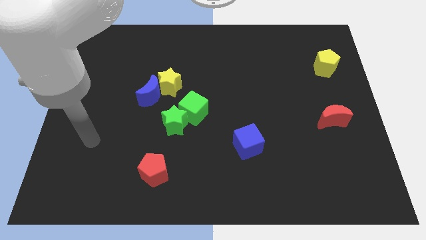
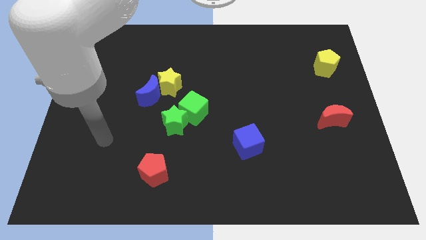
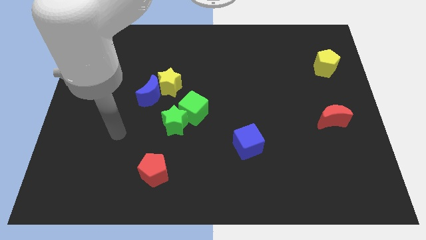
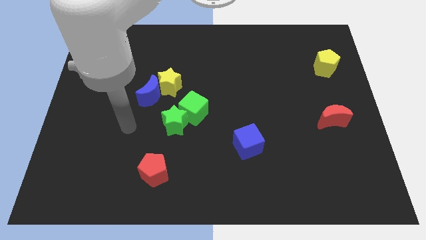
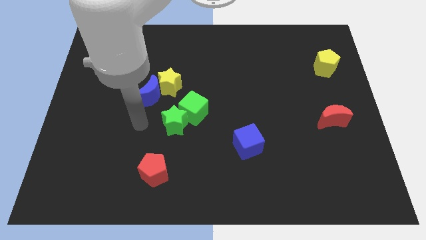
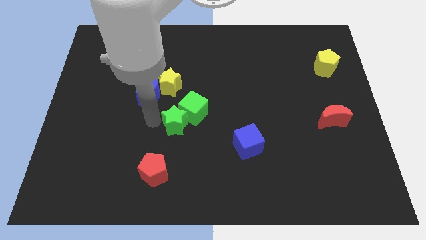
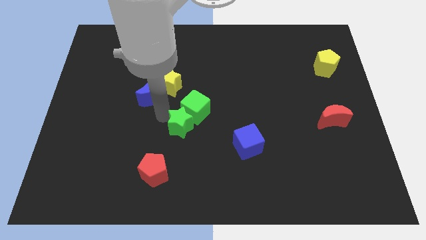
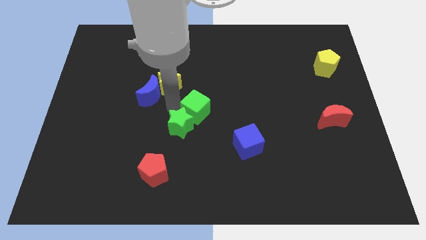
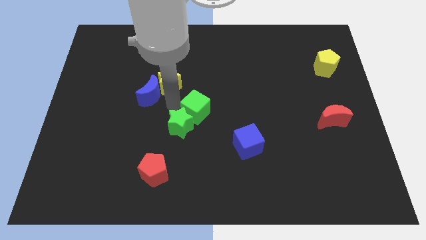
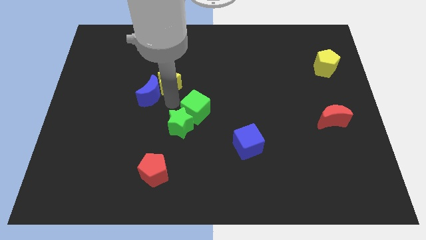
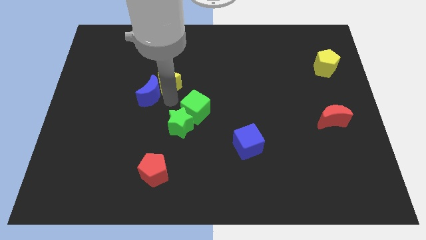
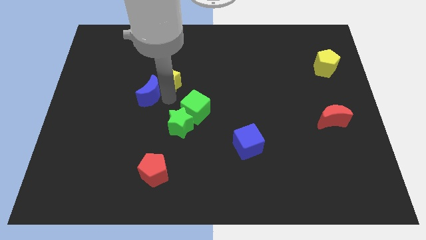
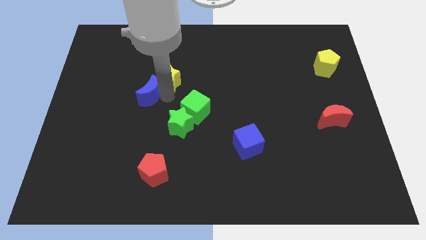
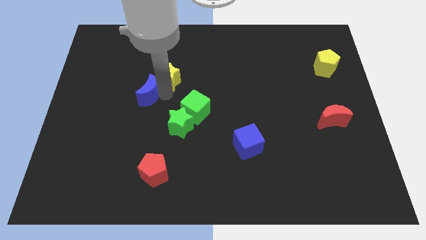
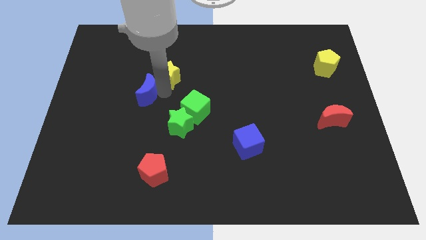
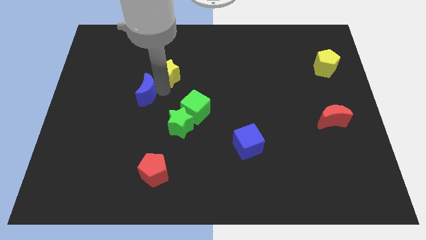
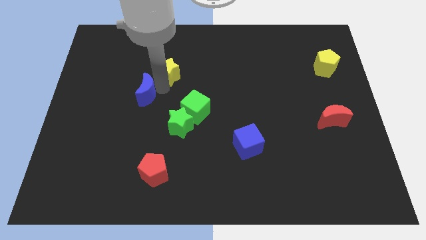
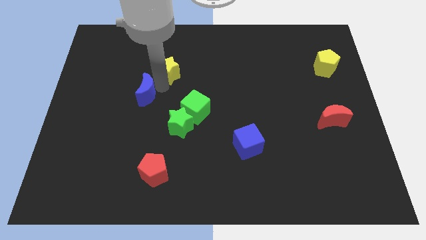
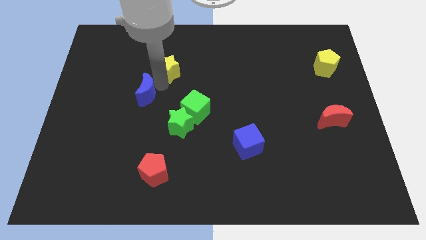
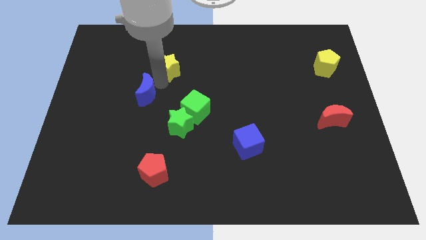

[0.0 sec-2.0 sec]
separate the yellow star from the blue moon and green cube

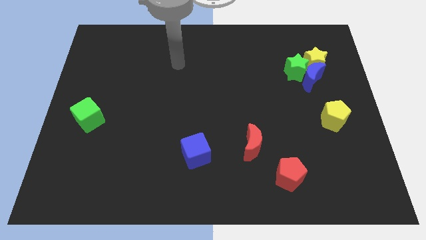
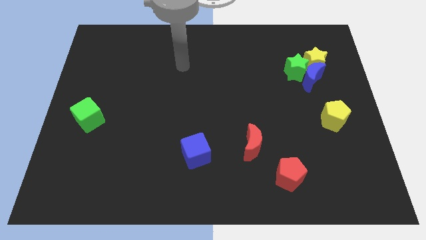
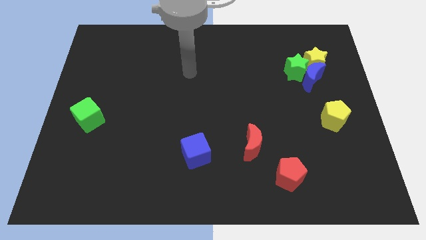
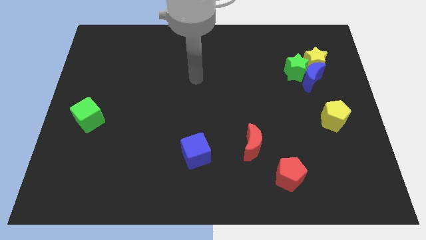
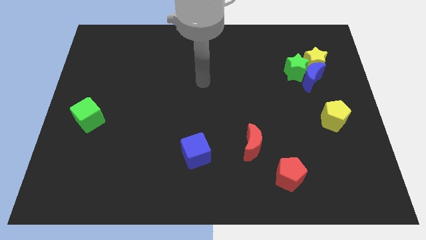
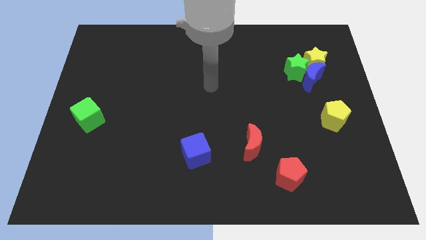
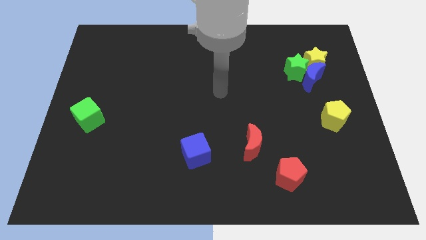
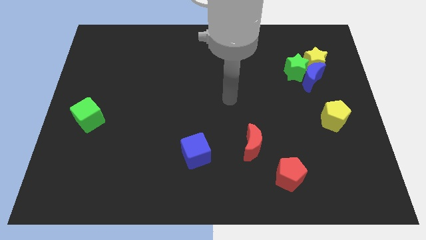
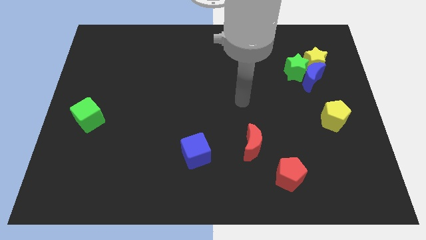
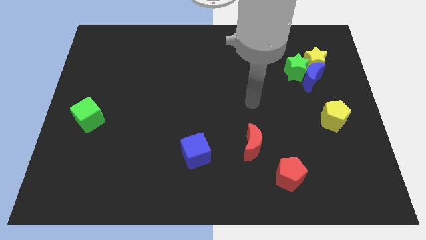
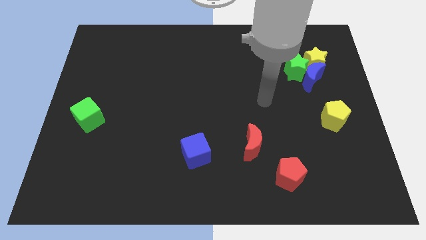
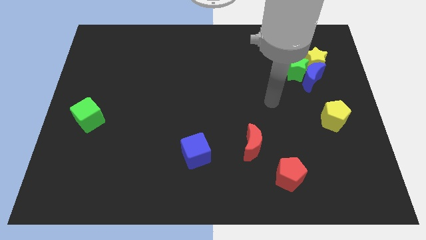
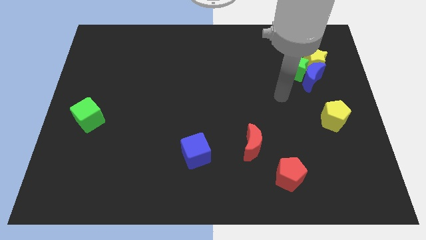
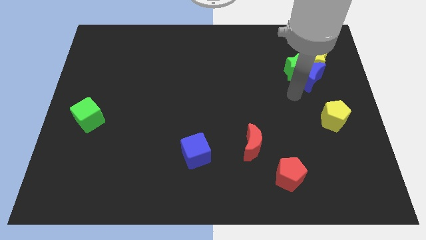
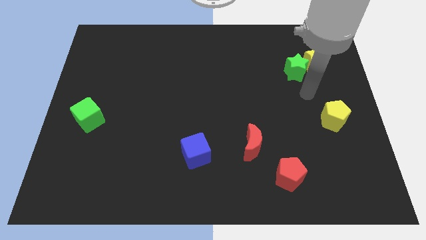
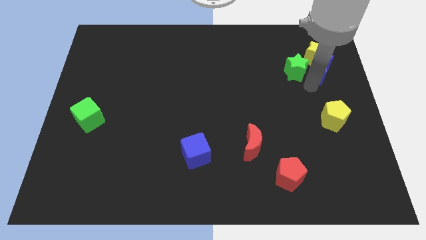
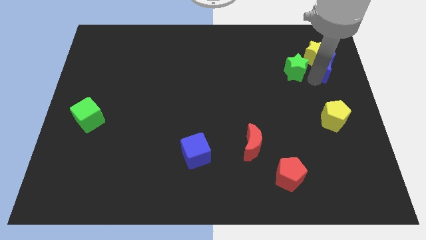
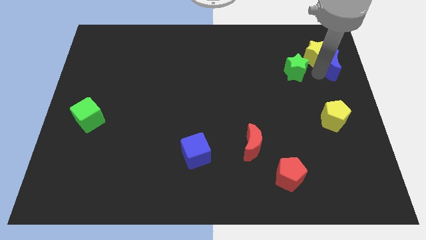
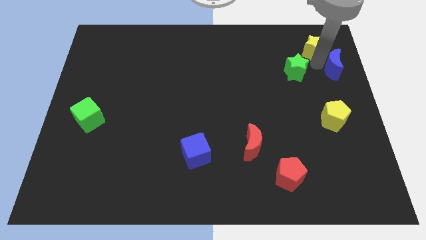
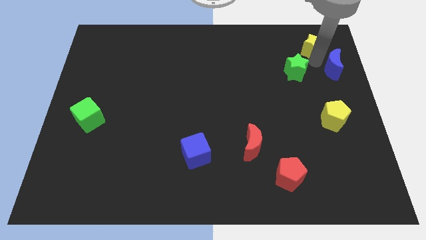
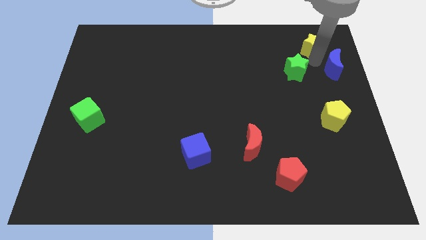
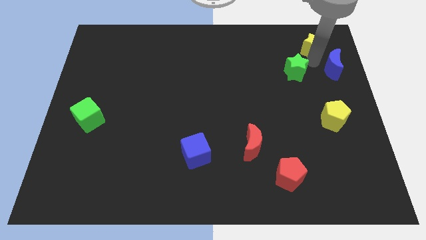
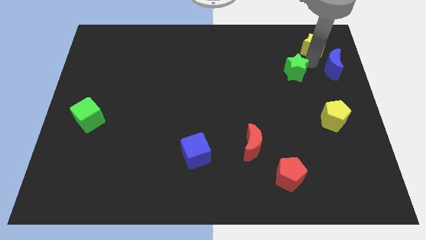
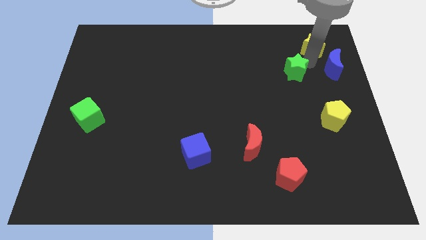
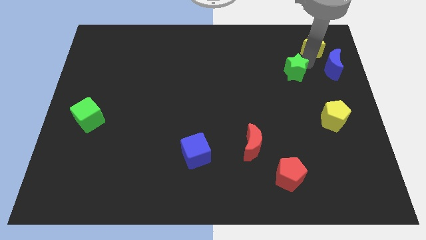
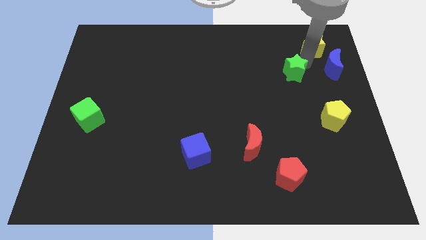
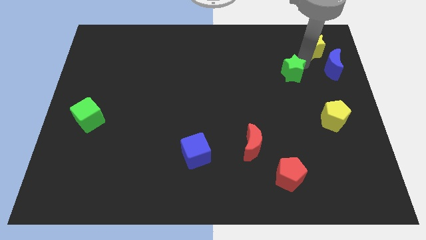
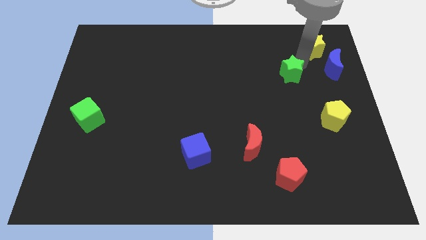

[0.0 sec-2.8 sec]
move the green star away from the blue moon and yellow star

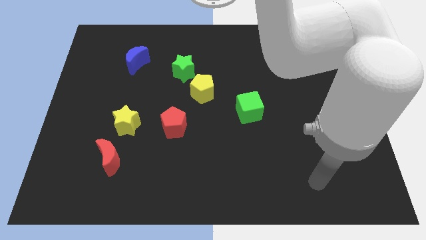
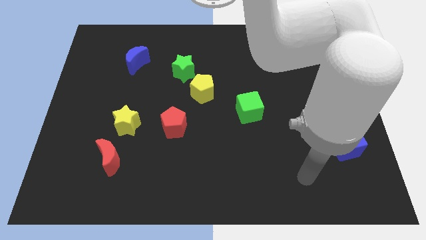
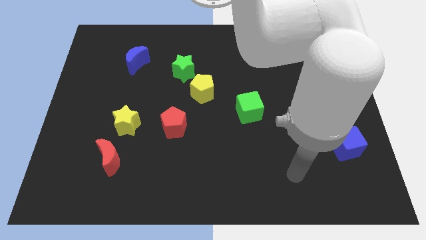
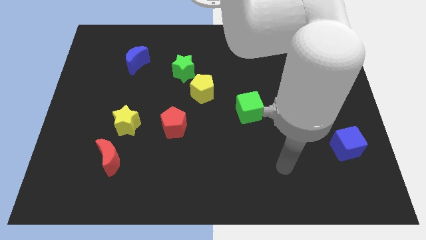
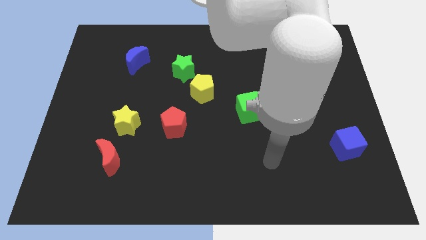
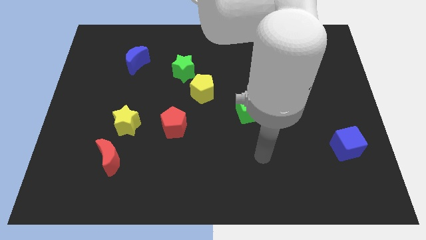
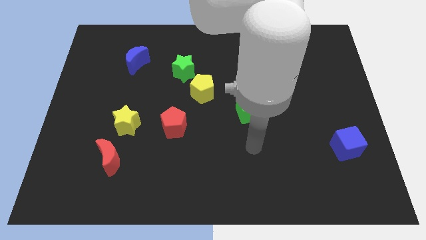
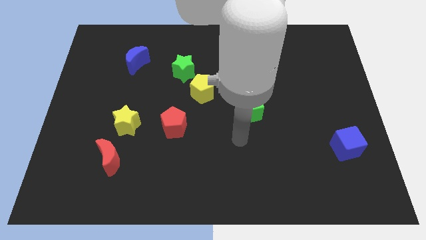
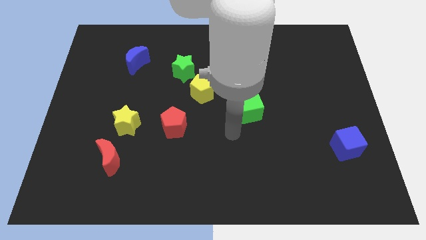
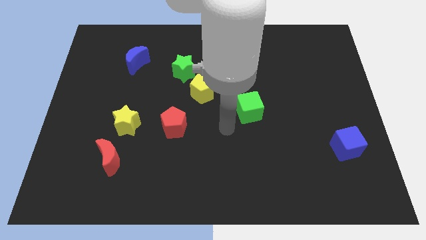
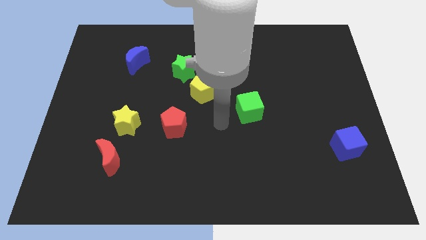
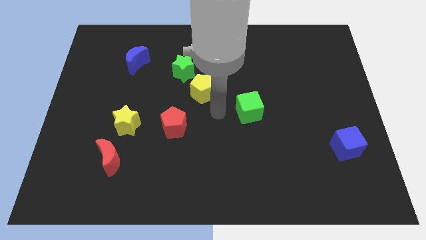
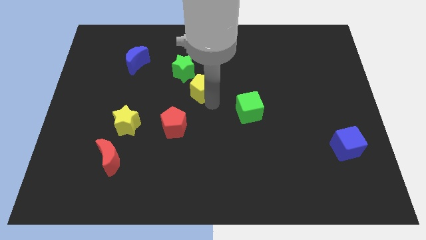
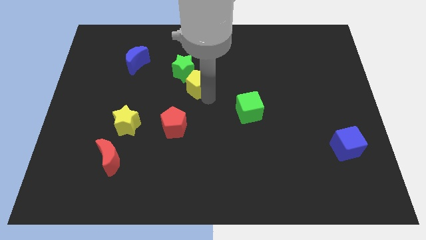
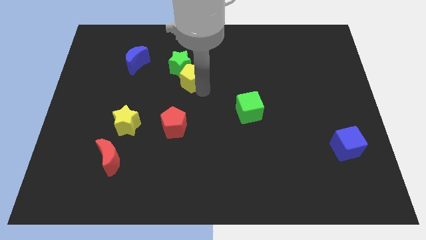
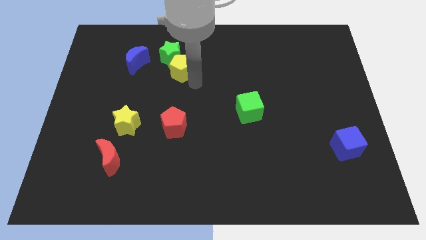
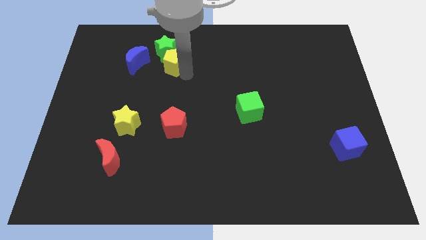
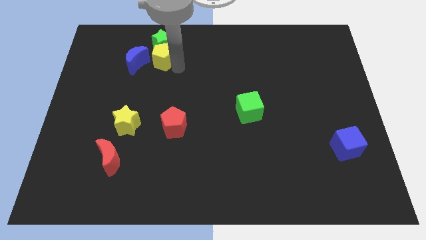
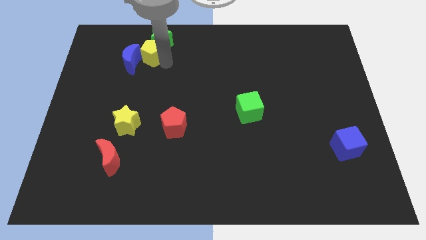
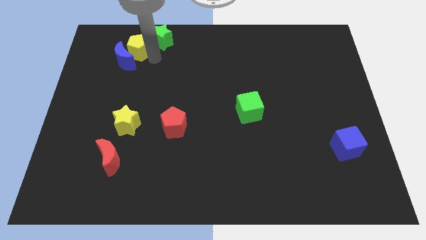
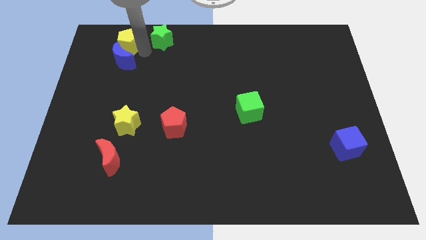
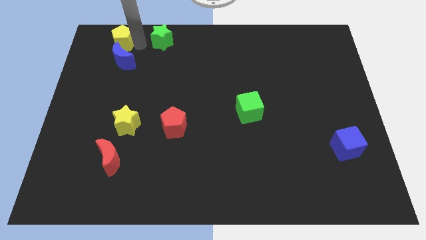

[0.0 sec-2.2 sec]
move the green star away from the yellow pentagon

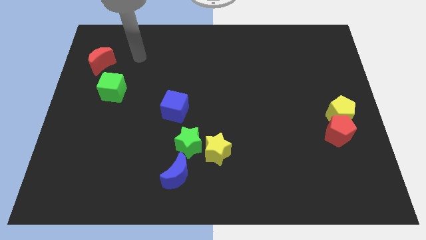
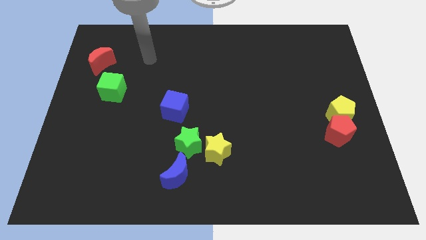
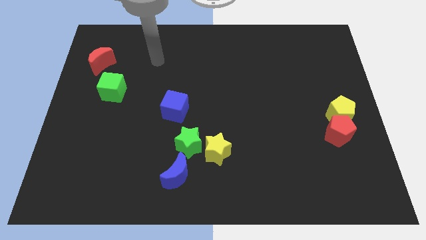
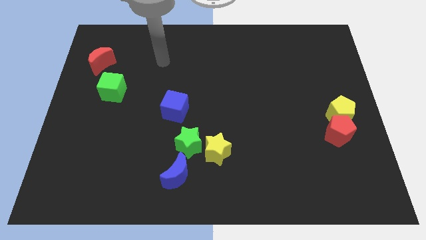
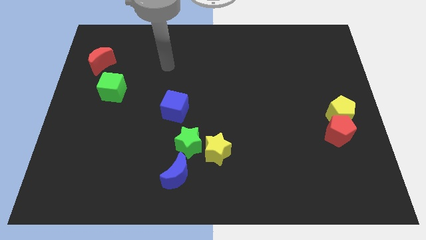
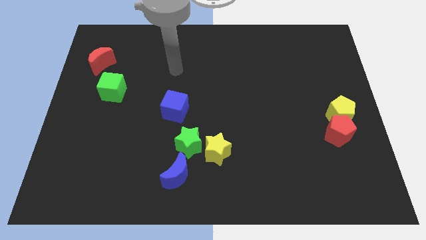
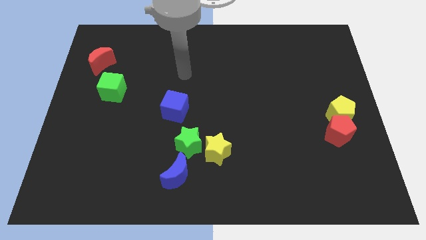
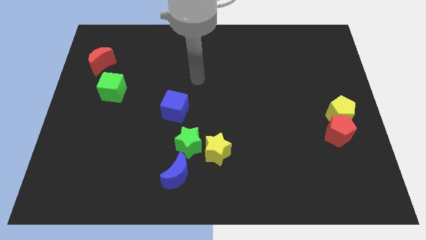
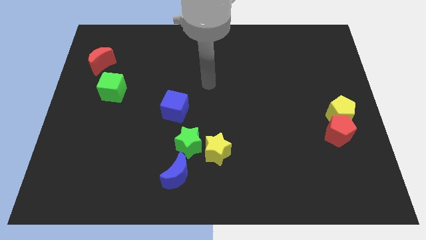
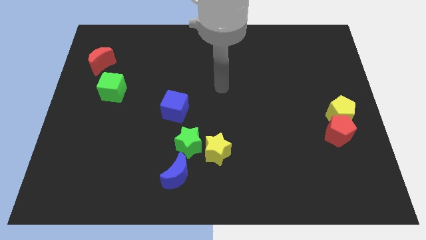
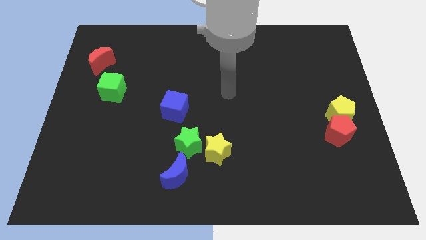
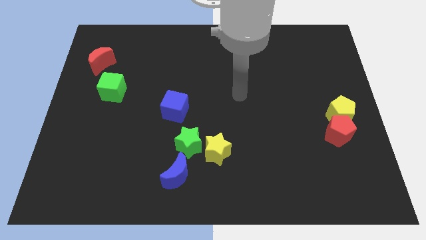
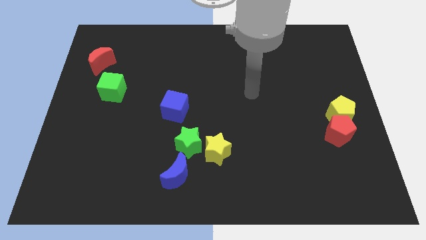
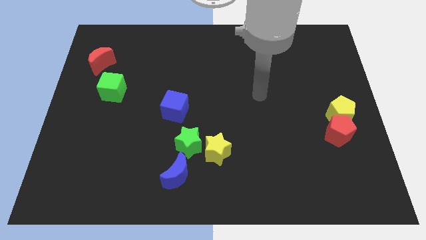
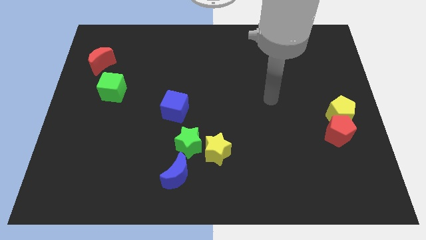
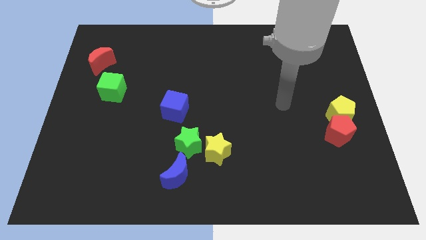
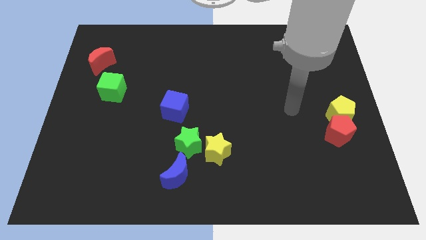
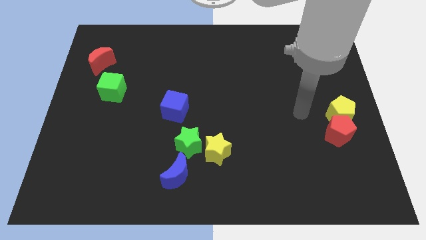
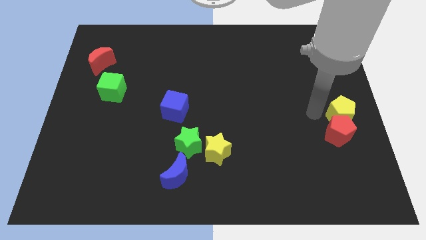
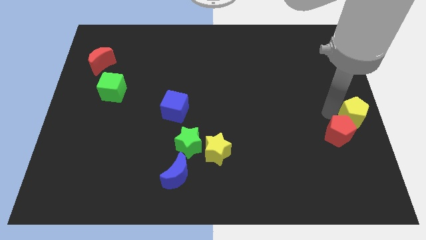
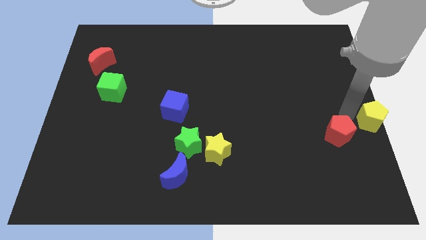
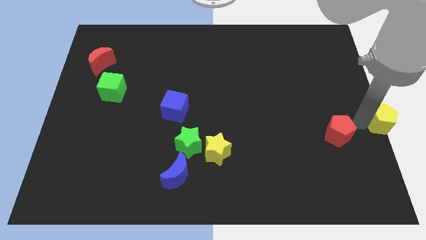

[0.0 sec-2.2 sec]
pull the red pentagon apart from the yellow pentagon

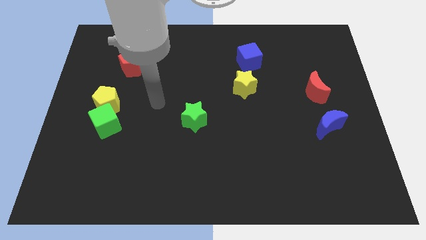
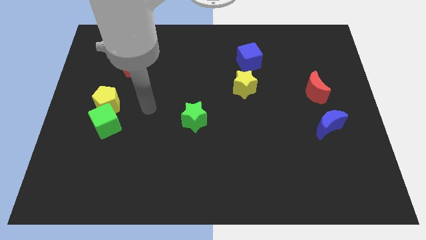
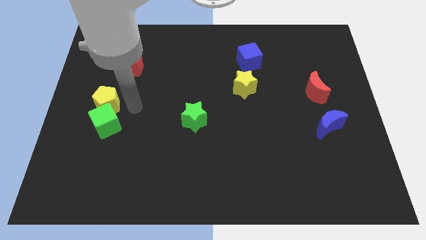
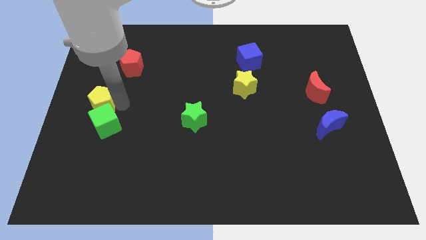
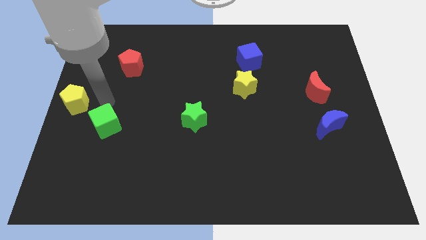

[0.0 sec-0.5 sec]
move the green cube away from the yellow pentagon
